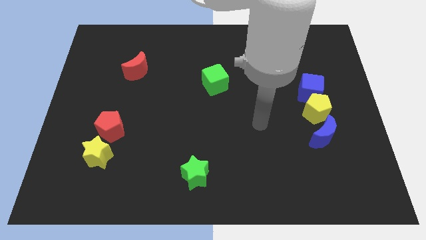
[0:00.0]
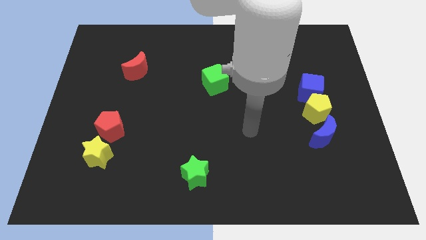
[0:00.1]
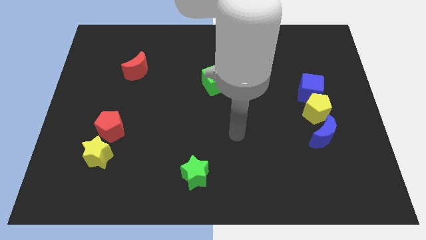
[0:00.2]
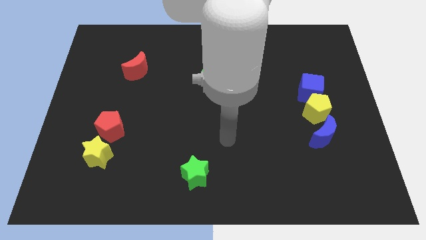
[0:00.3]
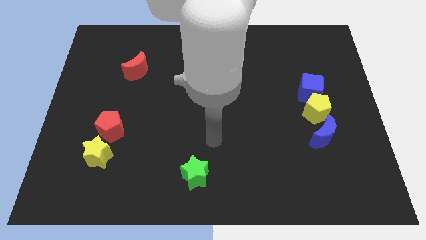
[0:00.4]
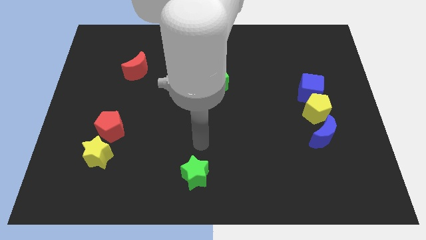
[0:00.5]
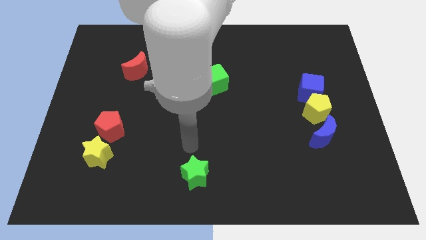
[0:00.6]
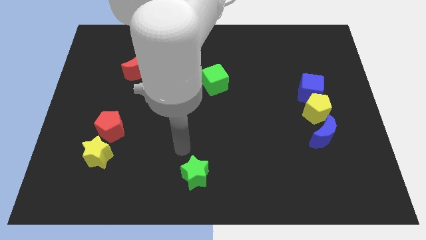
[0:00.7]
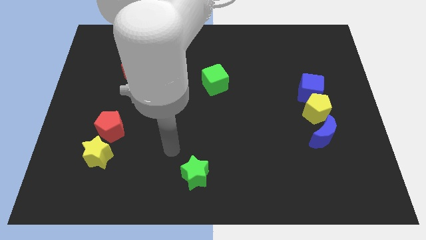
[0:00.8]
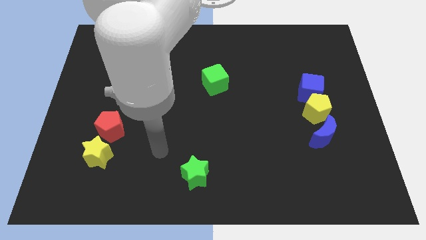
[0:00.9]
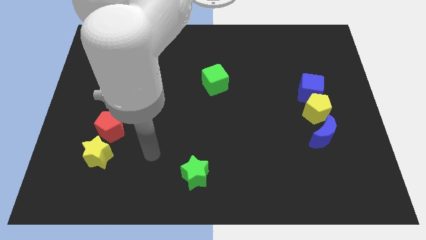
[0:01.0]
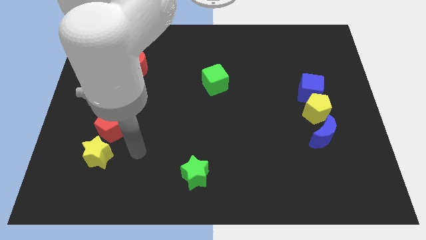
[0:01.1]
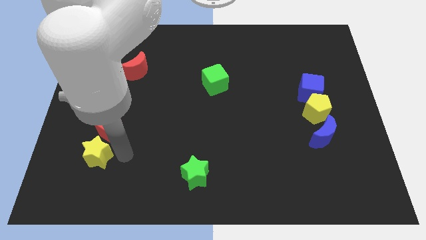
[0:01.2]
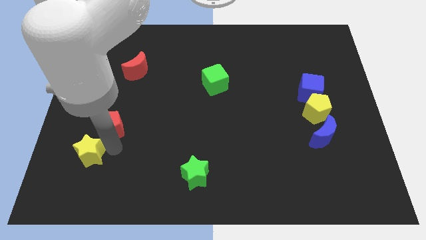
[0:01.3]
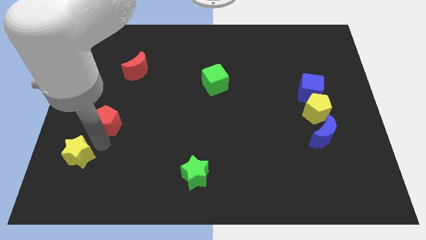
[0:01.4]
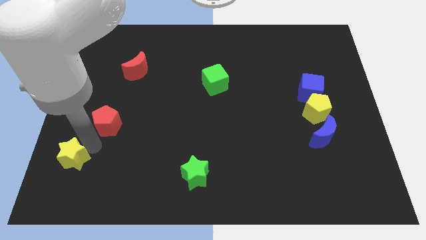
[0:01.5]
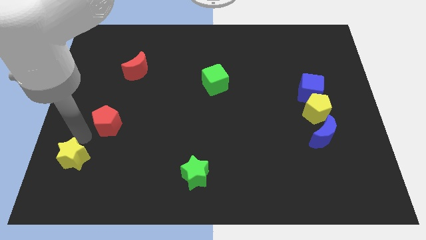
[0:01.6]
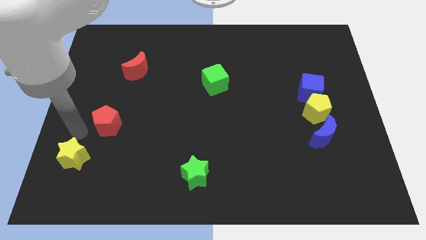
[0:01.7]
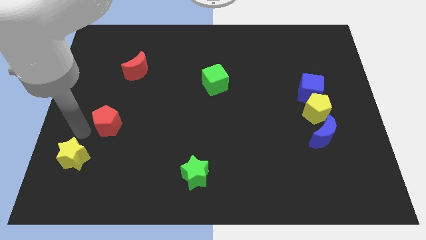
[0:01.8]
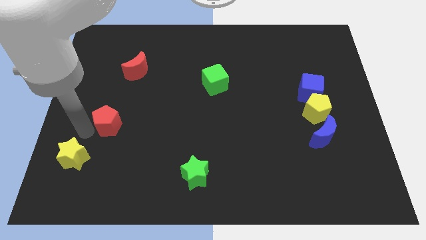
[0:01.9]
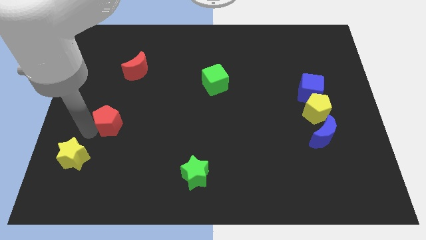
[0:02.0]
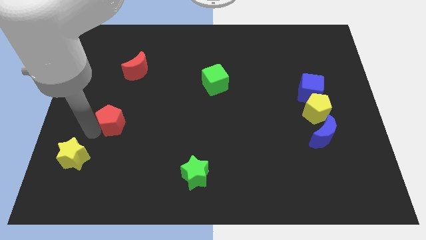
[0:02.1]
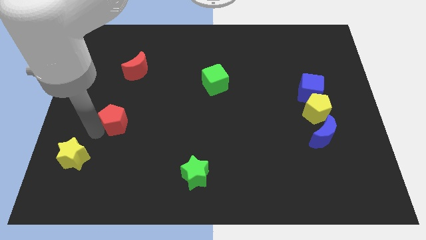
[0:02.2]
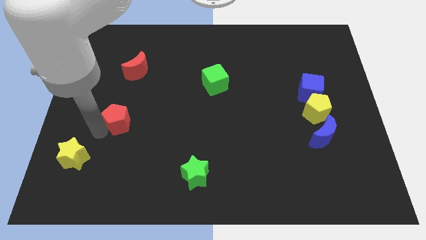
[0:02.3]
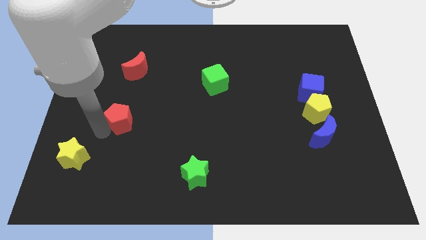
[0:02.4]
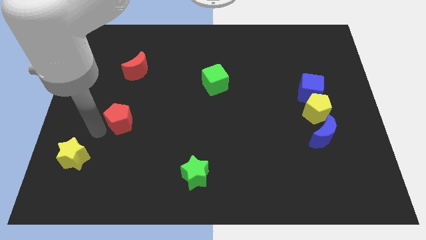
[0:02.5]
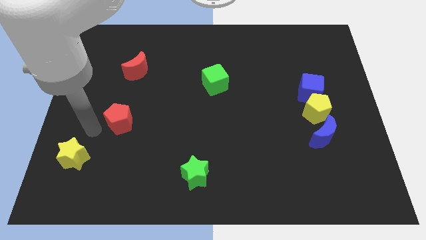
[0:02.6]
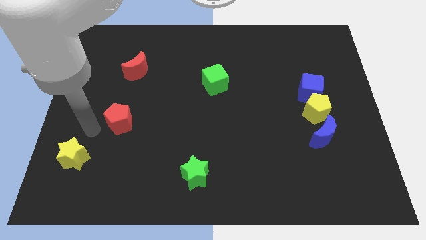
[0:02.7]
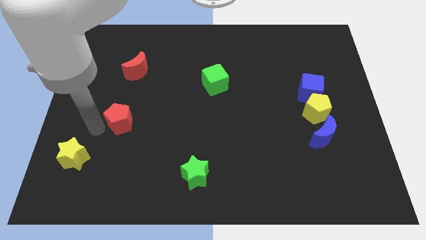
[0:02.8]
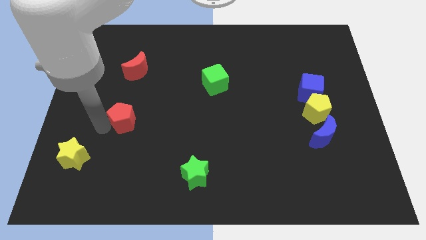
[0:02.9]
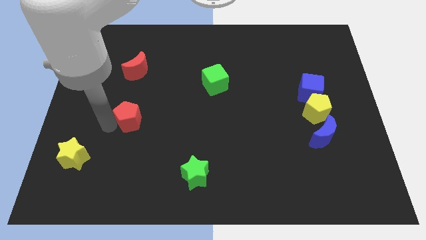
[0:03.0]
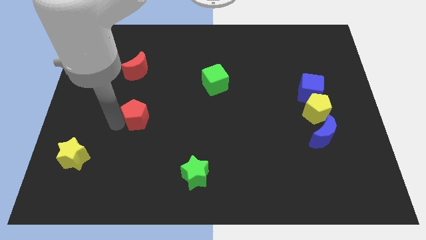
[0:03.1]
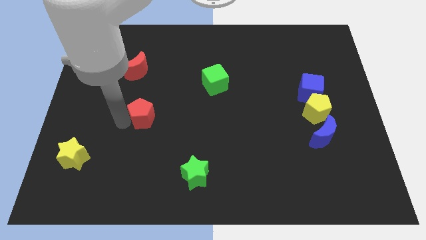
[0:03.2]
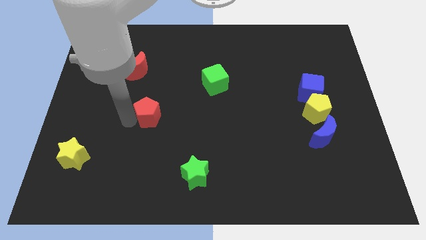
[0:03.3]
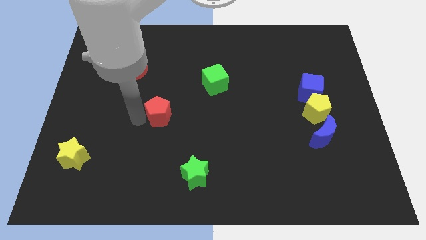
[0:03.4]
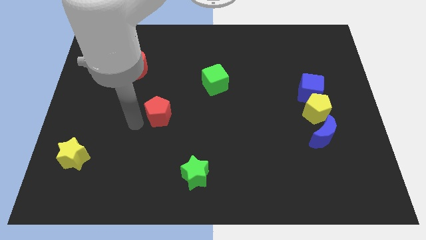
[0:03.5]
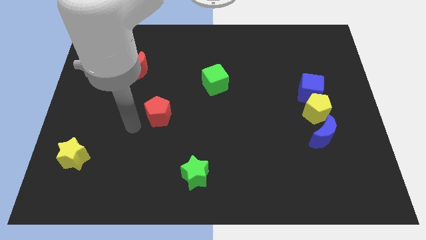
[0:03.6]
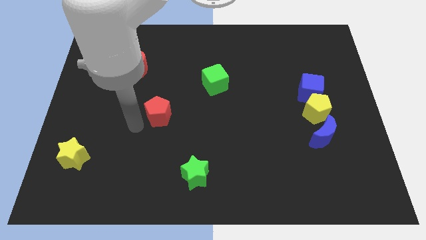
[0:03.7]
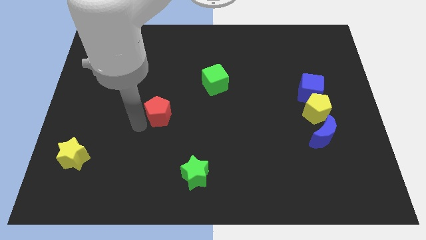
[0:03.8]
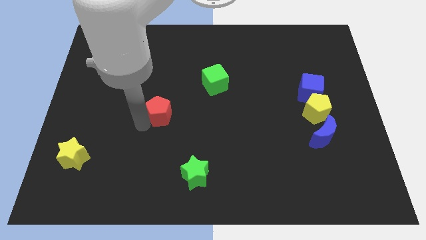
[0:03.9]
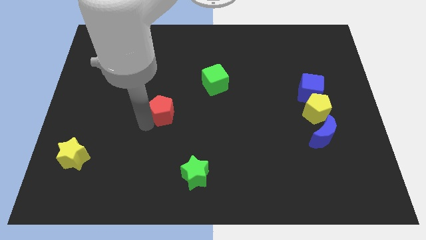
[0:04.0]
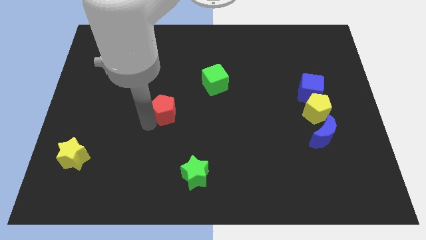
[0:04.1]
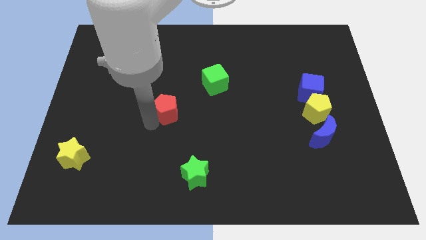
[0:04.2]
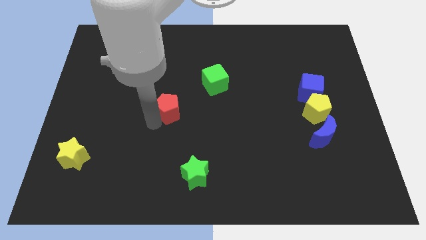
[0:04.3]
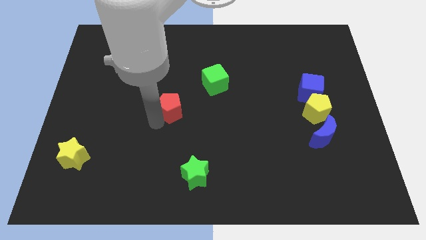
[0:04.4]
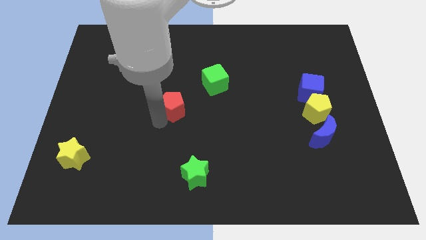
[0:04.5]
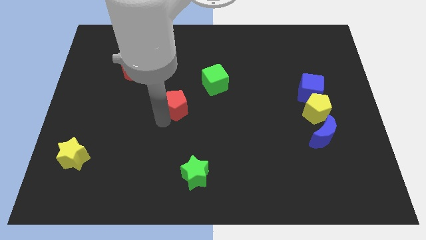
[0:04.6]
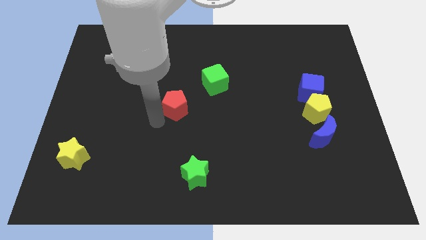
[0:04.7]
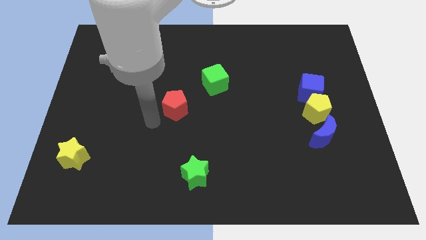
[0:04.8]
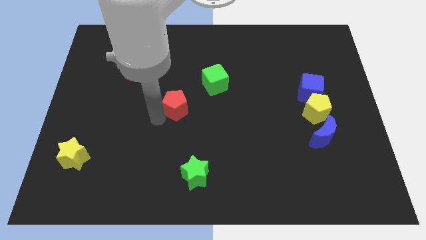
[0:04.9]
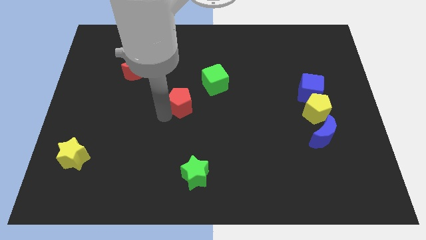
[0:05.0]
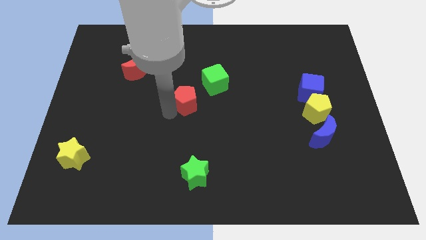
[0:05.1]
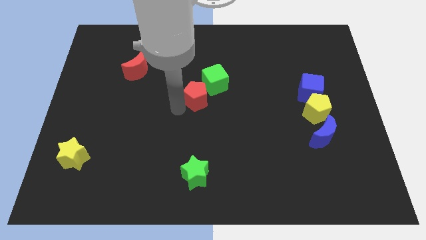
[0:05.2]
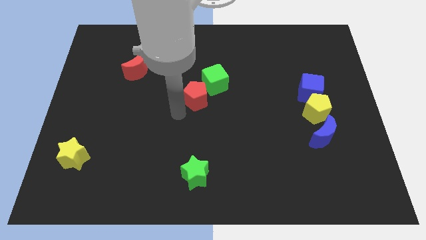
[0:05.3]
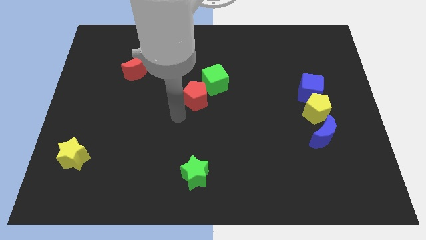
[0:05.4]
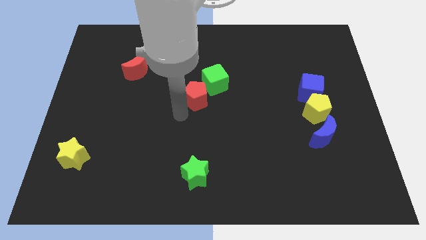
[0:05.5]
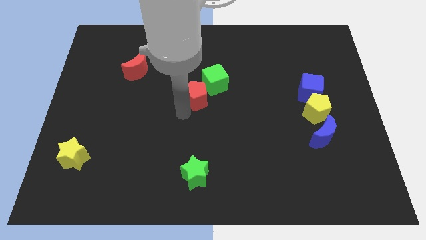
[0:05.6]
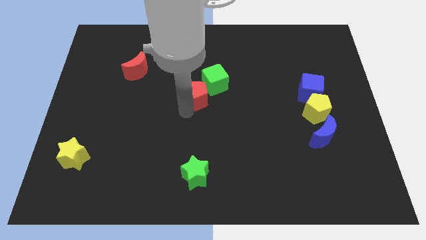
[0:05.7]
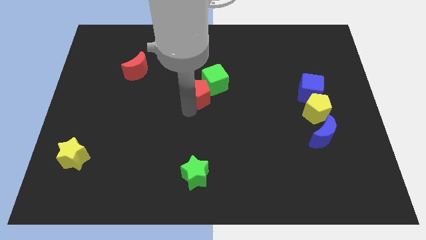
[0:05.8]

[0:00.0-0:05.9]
put the red pentagon next to the green cube
